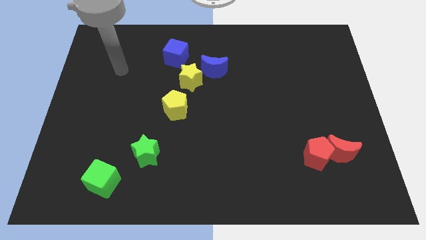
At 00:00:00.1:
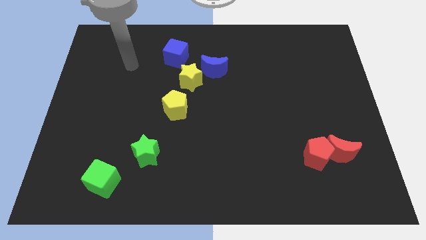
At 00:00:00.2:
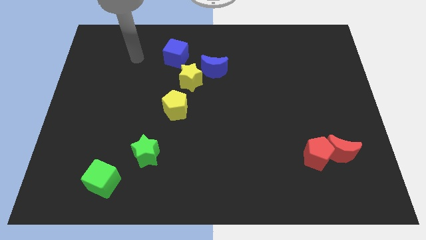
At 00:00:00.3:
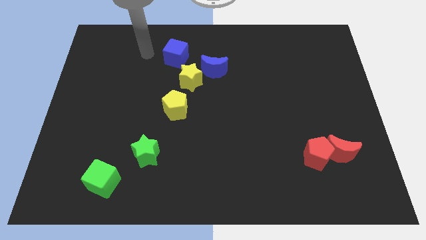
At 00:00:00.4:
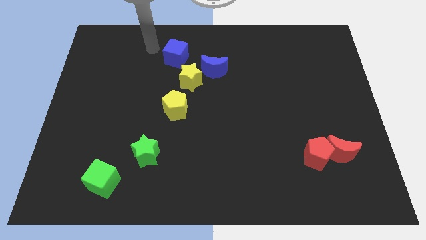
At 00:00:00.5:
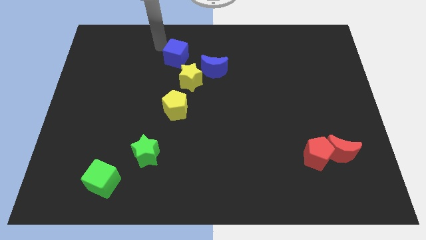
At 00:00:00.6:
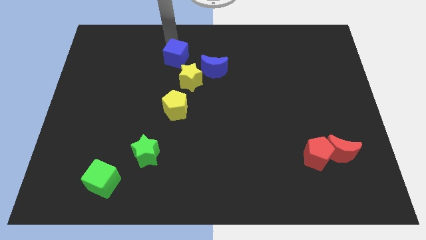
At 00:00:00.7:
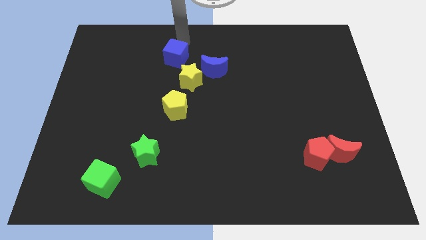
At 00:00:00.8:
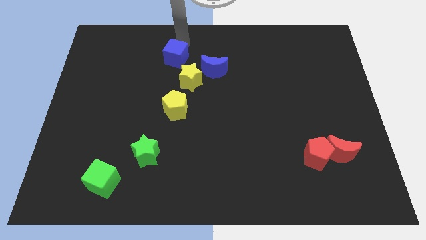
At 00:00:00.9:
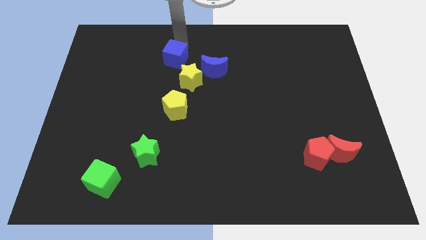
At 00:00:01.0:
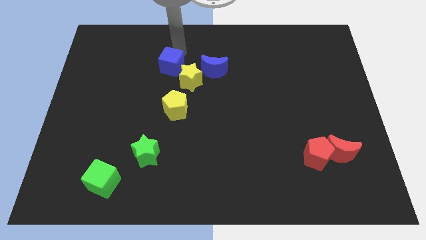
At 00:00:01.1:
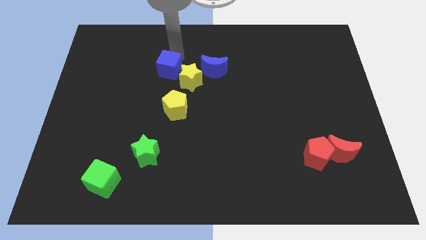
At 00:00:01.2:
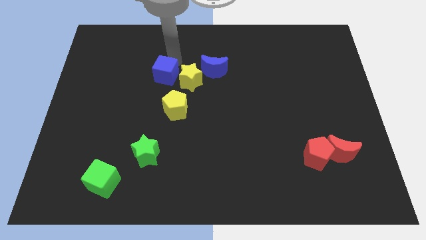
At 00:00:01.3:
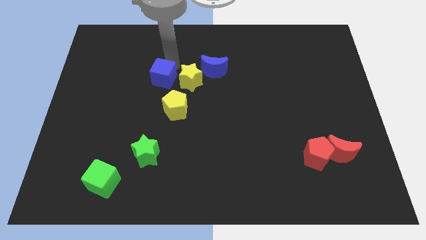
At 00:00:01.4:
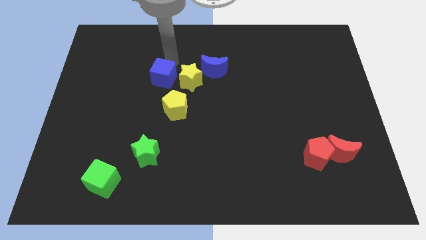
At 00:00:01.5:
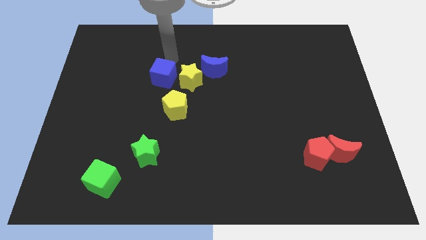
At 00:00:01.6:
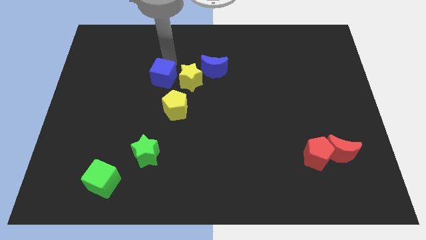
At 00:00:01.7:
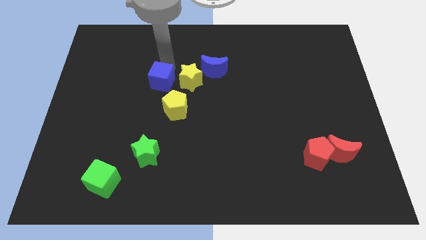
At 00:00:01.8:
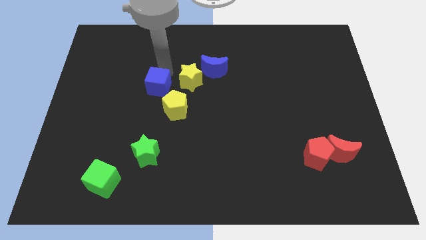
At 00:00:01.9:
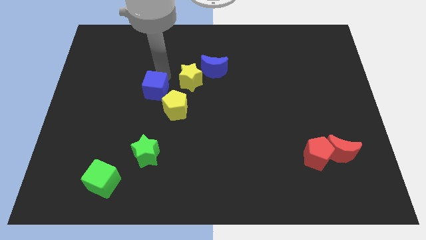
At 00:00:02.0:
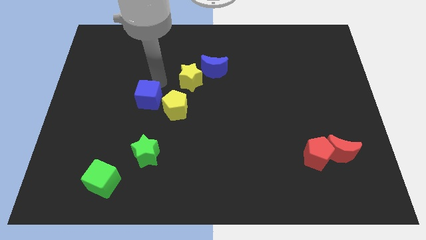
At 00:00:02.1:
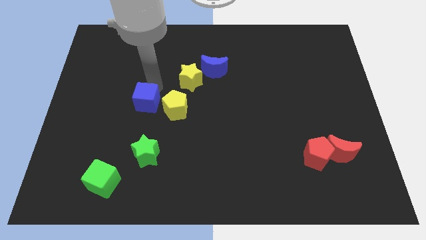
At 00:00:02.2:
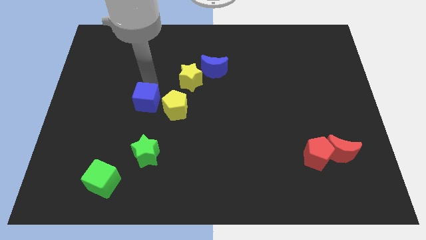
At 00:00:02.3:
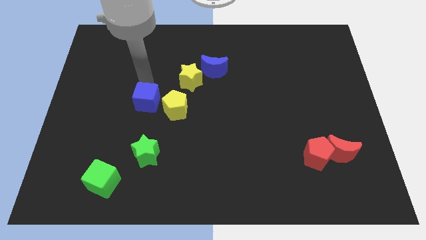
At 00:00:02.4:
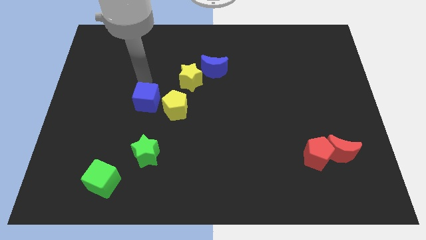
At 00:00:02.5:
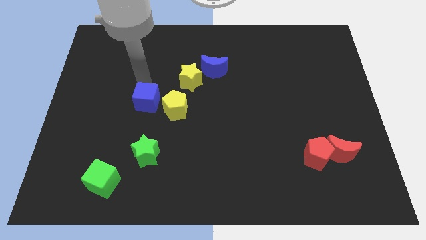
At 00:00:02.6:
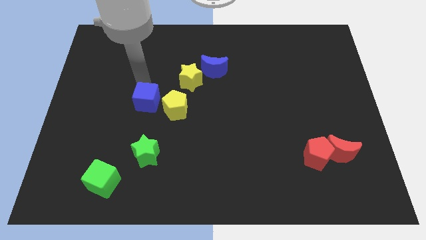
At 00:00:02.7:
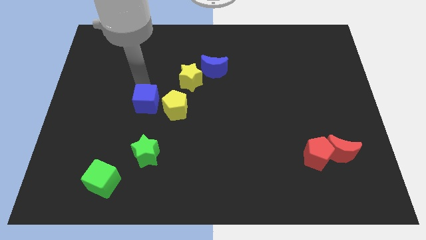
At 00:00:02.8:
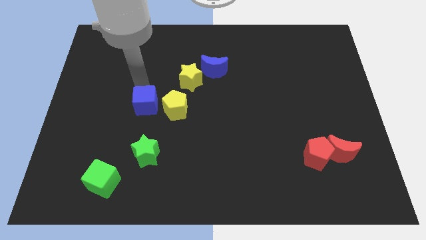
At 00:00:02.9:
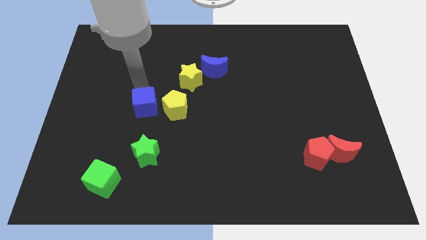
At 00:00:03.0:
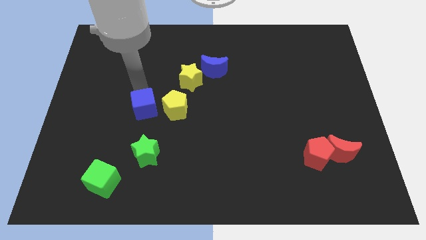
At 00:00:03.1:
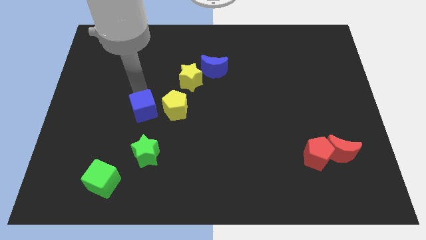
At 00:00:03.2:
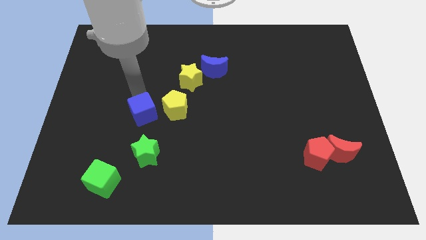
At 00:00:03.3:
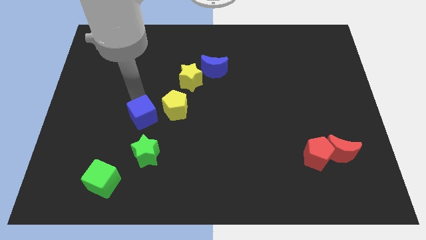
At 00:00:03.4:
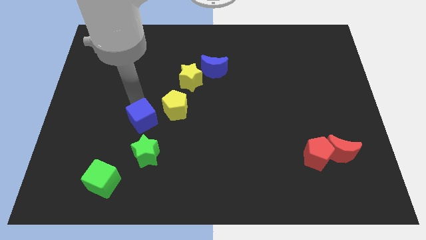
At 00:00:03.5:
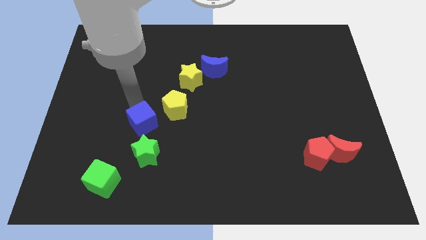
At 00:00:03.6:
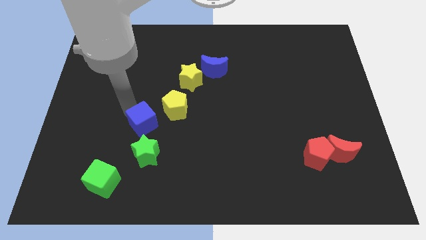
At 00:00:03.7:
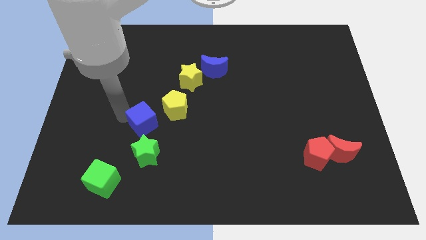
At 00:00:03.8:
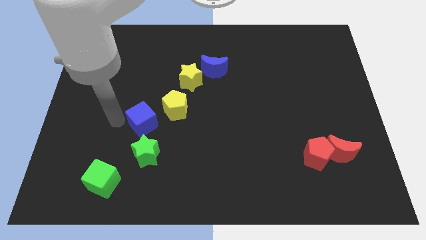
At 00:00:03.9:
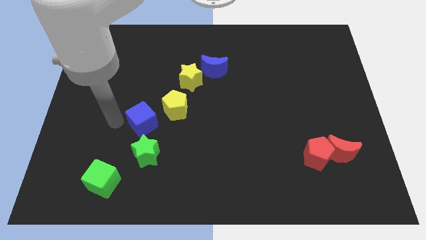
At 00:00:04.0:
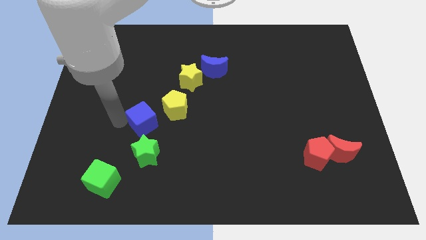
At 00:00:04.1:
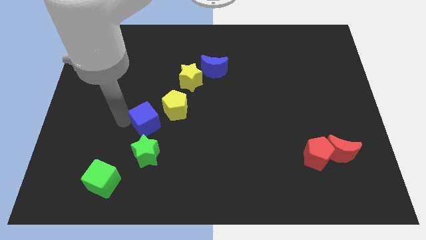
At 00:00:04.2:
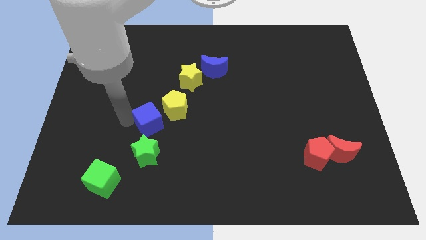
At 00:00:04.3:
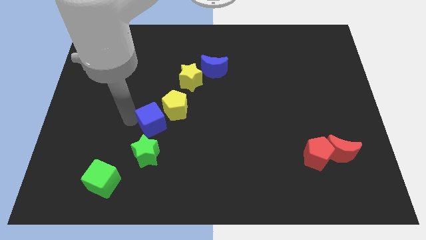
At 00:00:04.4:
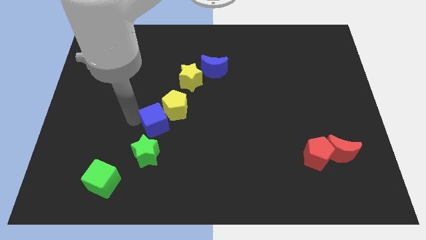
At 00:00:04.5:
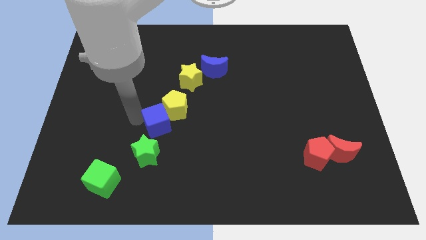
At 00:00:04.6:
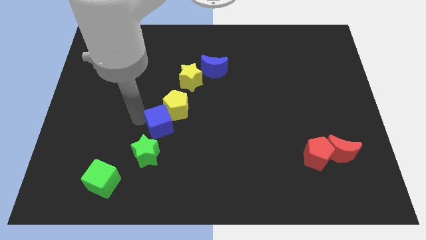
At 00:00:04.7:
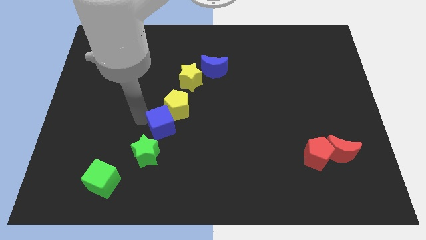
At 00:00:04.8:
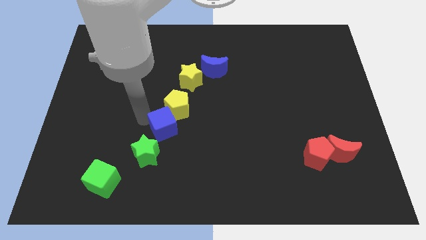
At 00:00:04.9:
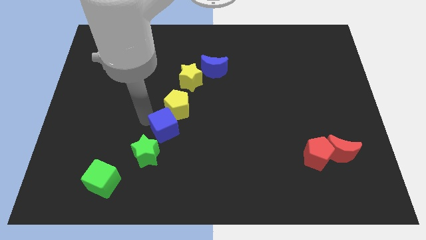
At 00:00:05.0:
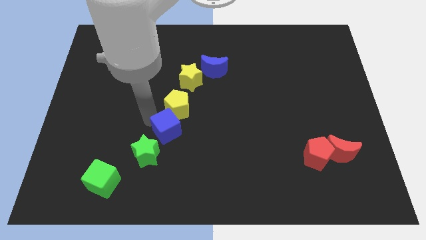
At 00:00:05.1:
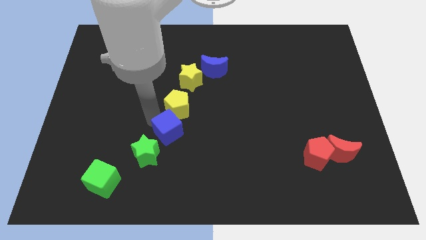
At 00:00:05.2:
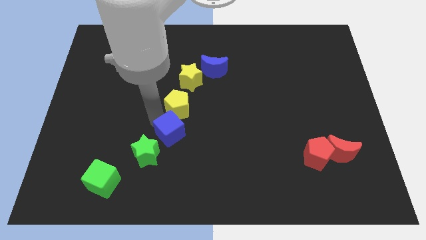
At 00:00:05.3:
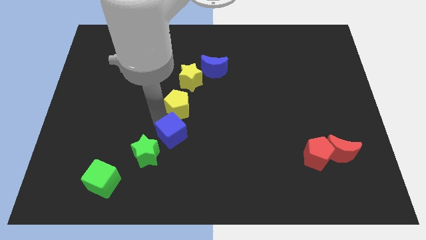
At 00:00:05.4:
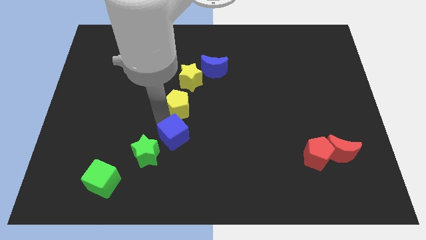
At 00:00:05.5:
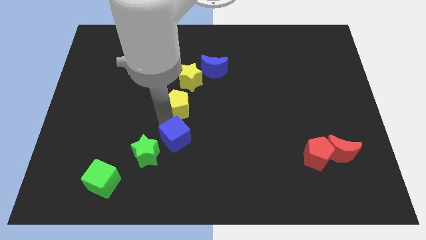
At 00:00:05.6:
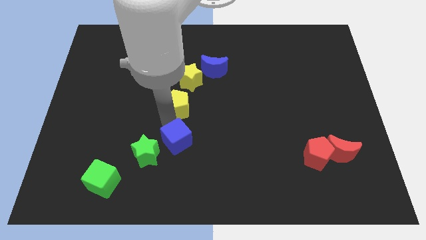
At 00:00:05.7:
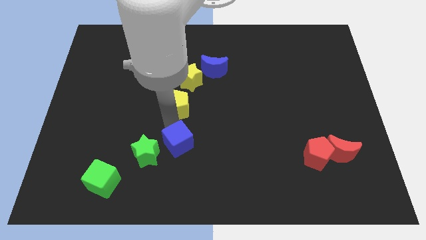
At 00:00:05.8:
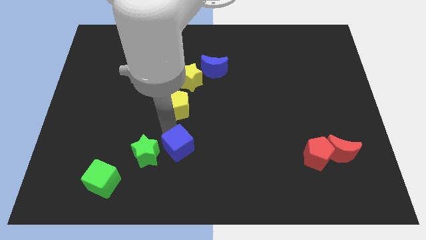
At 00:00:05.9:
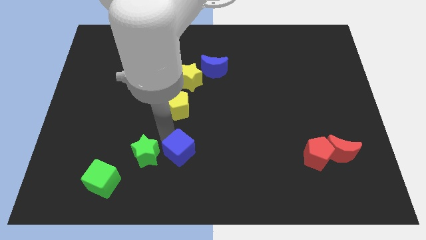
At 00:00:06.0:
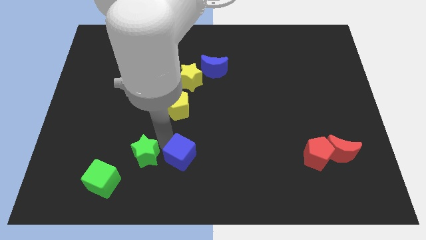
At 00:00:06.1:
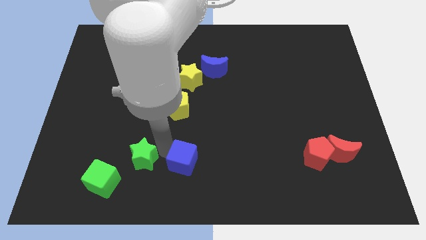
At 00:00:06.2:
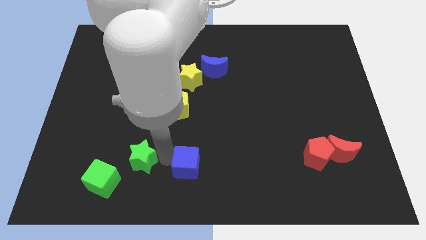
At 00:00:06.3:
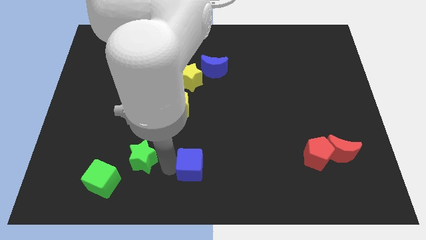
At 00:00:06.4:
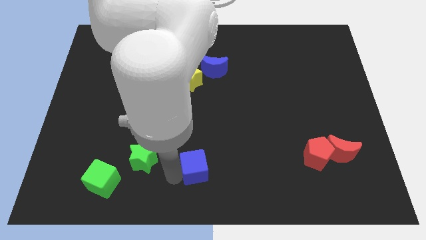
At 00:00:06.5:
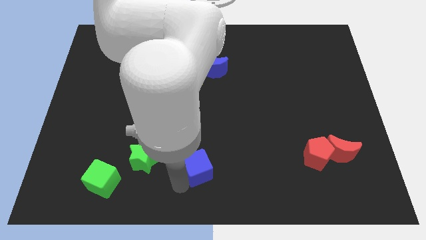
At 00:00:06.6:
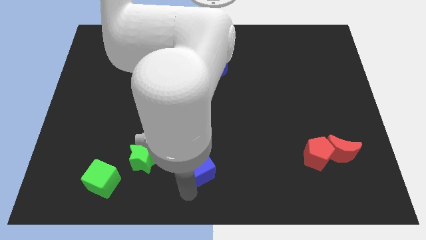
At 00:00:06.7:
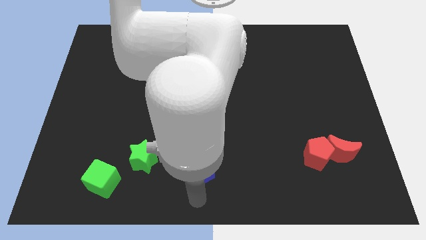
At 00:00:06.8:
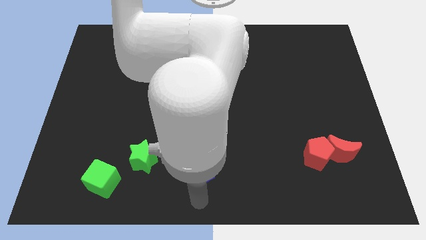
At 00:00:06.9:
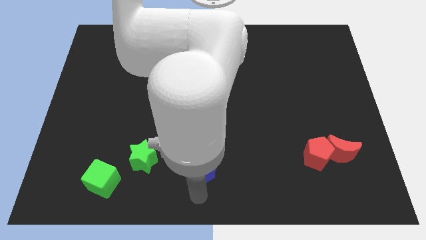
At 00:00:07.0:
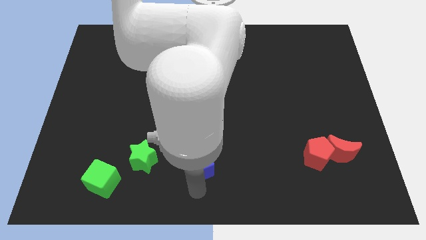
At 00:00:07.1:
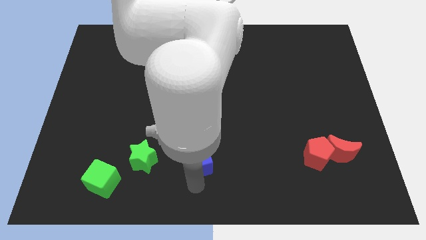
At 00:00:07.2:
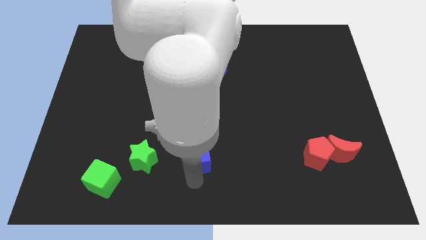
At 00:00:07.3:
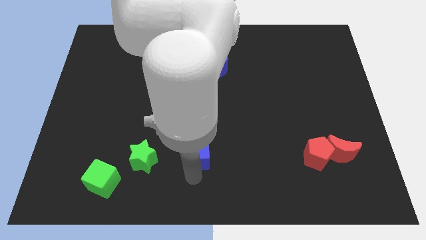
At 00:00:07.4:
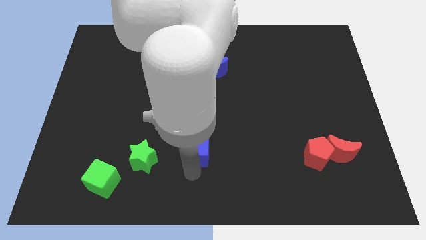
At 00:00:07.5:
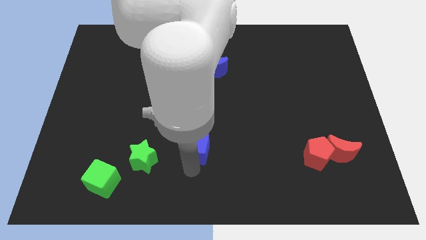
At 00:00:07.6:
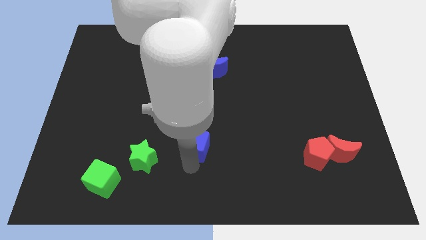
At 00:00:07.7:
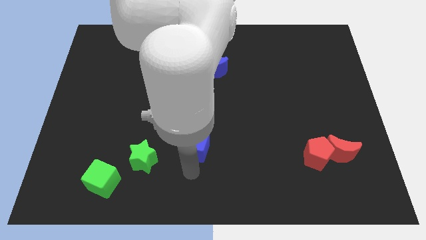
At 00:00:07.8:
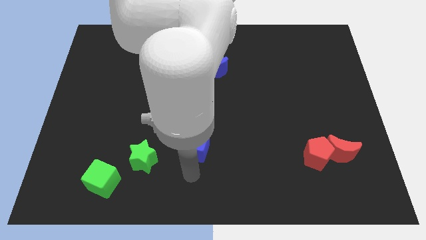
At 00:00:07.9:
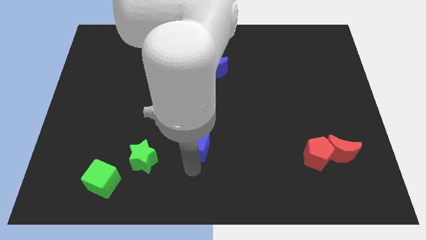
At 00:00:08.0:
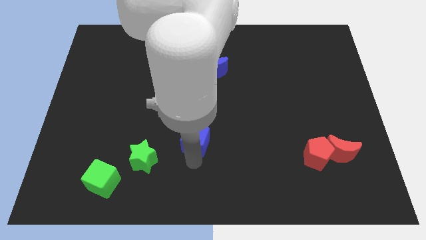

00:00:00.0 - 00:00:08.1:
slide the blue cube to the bottom right of the yellow pentagon
